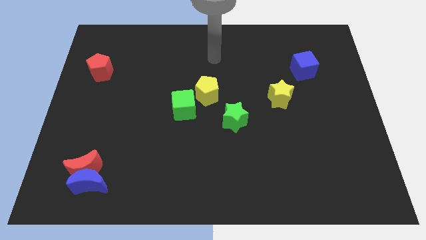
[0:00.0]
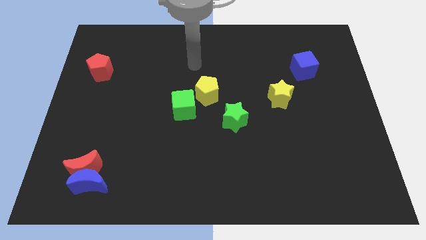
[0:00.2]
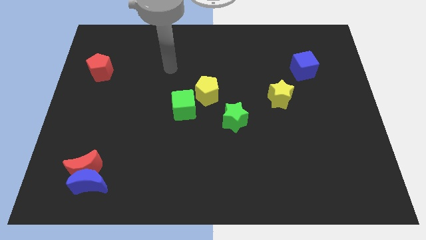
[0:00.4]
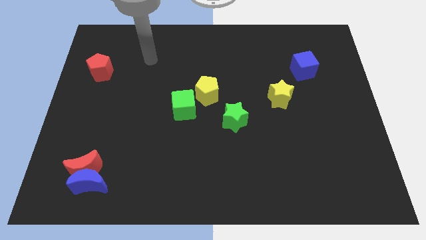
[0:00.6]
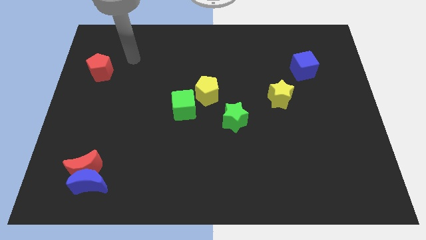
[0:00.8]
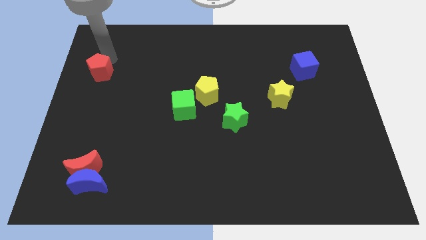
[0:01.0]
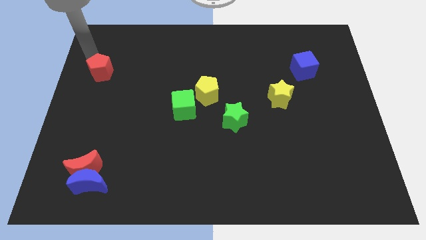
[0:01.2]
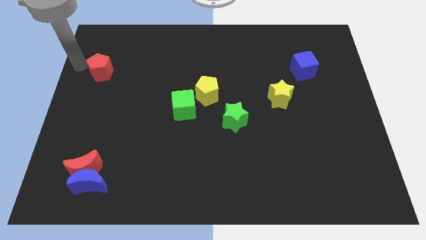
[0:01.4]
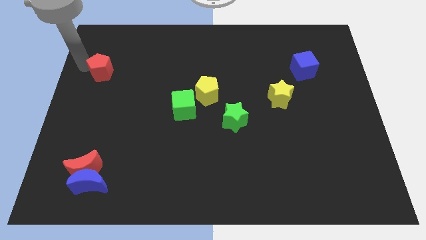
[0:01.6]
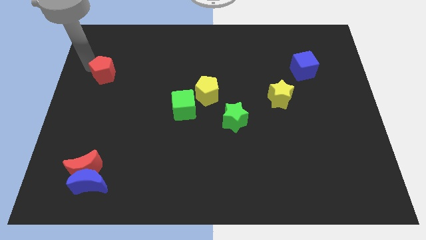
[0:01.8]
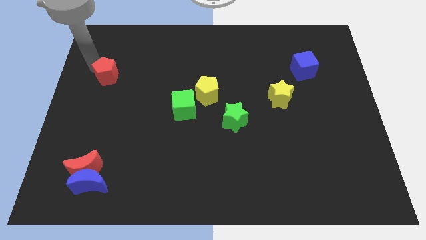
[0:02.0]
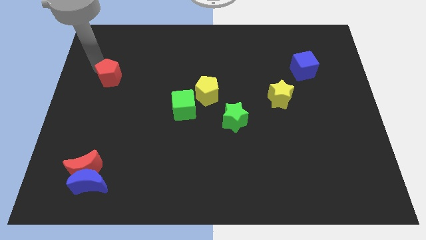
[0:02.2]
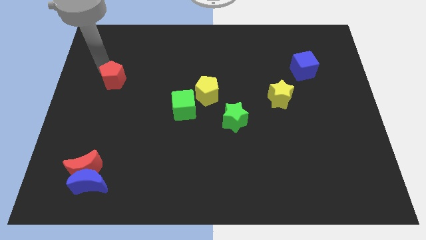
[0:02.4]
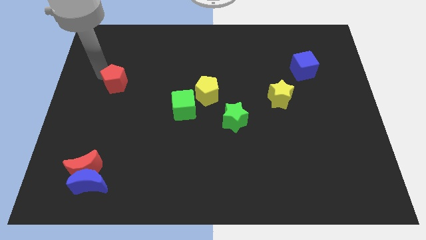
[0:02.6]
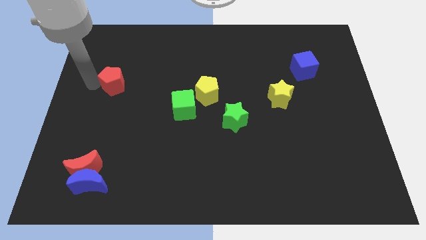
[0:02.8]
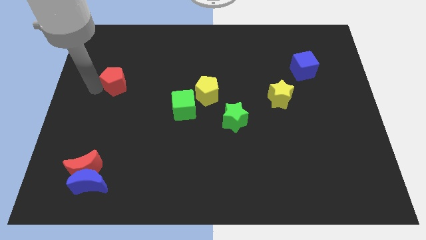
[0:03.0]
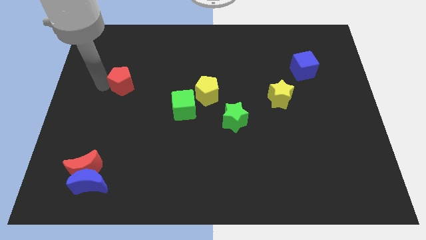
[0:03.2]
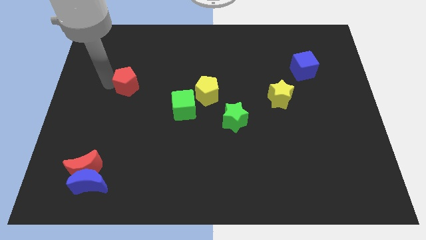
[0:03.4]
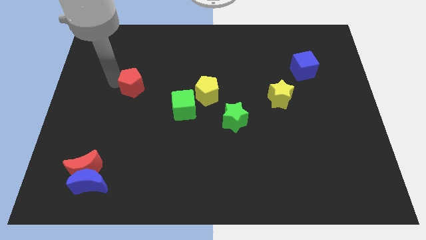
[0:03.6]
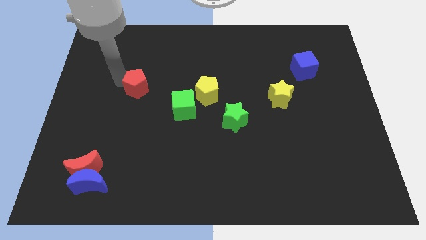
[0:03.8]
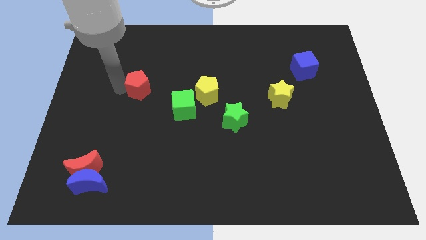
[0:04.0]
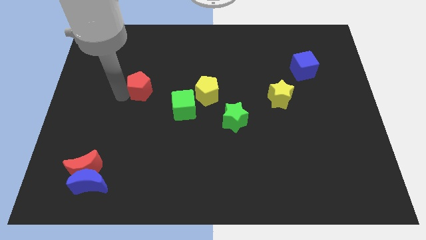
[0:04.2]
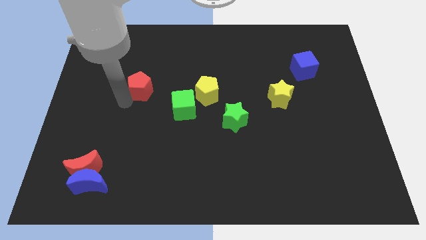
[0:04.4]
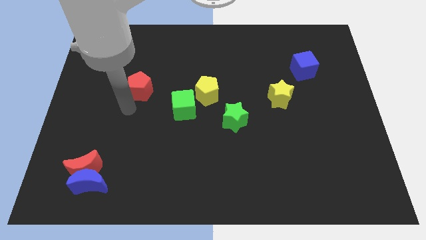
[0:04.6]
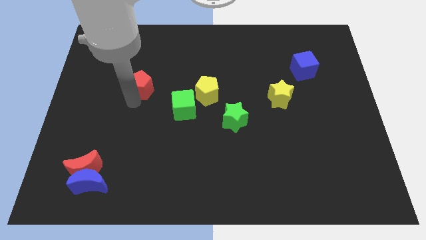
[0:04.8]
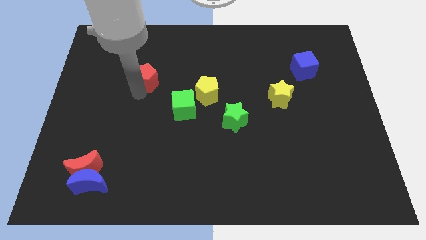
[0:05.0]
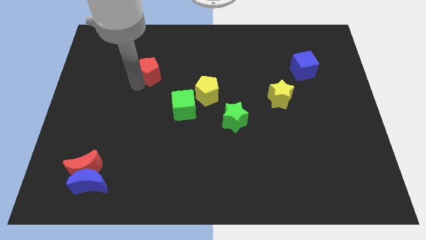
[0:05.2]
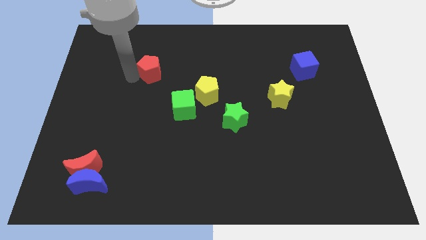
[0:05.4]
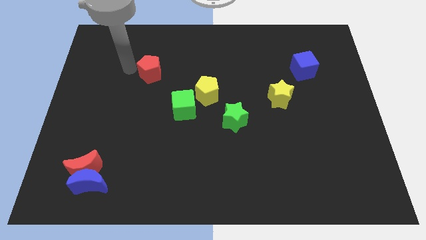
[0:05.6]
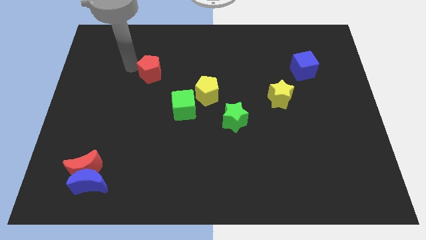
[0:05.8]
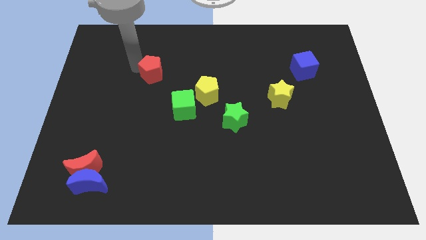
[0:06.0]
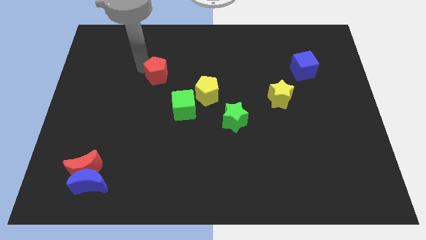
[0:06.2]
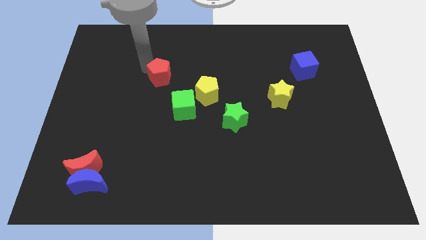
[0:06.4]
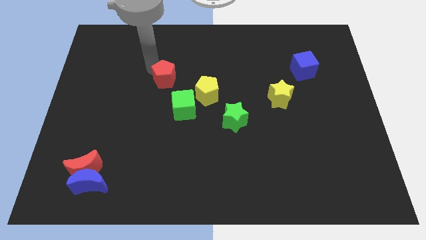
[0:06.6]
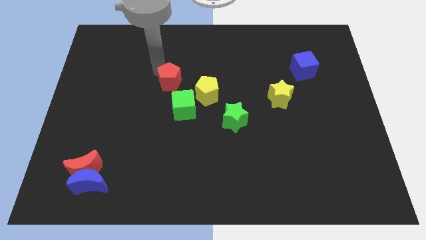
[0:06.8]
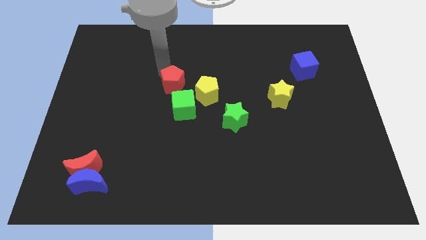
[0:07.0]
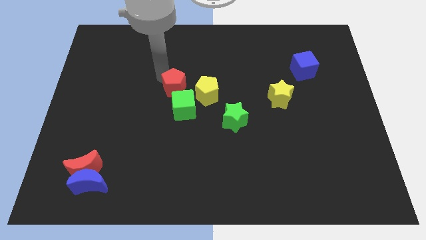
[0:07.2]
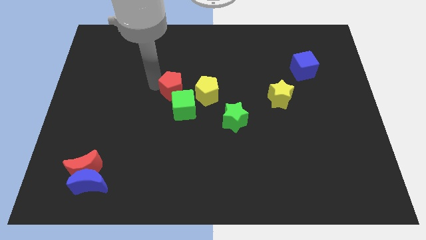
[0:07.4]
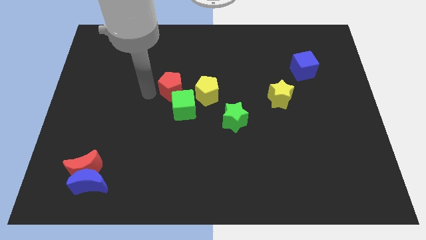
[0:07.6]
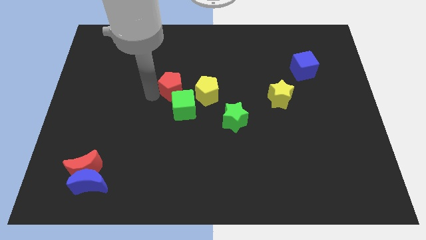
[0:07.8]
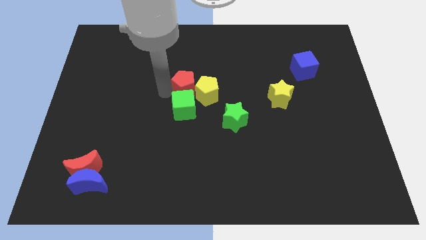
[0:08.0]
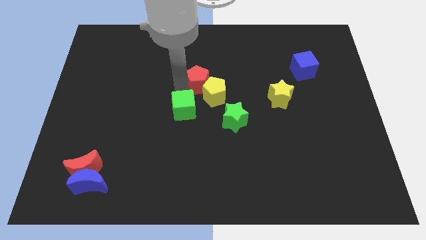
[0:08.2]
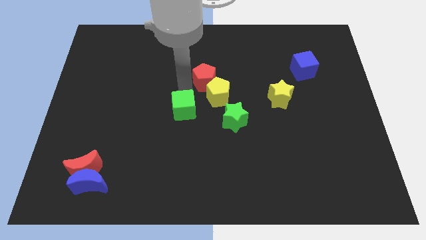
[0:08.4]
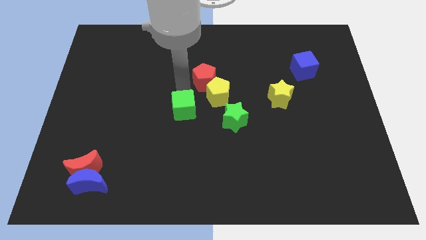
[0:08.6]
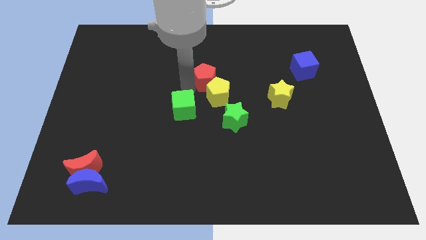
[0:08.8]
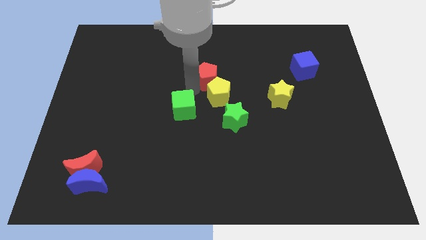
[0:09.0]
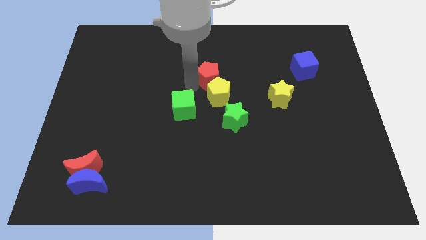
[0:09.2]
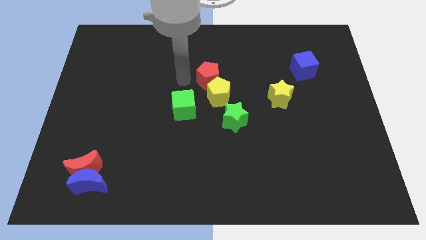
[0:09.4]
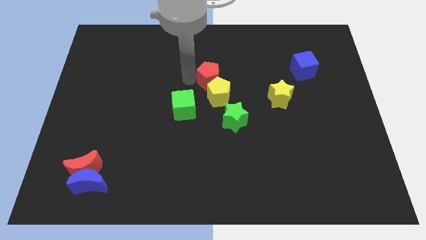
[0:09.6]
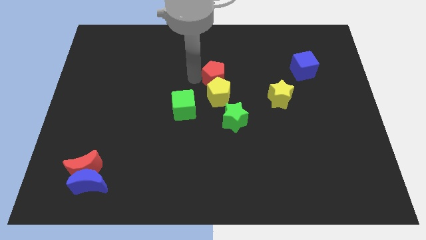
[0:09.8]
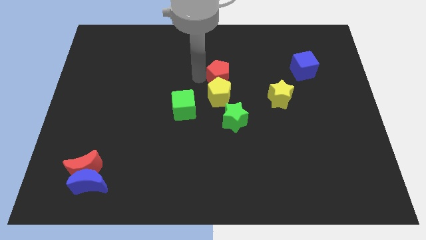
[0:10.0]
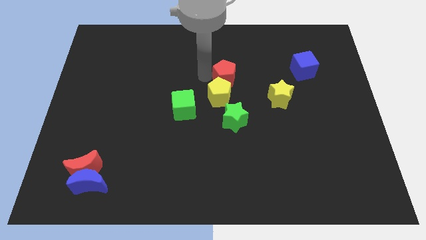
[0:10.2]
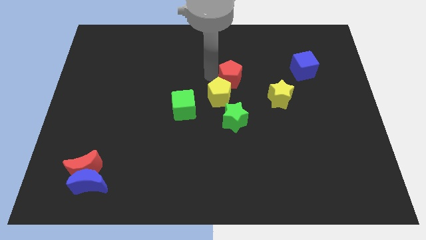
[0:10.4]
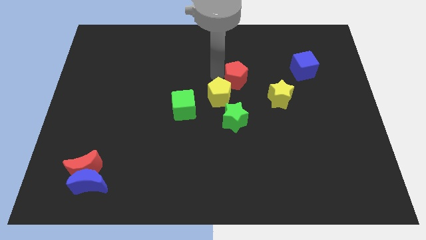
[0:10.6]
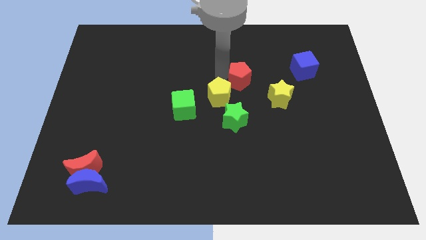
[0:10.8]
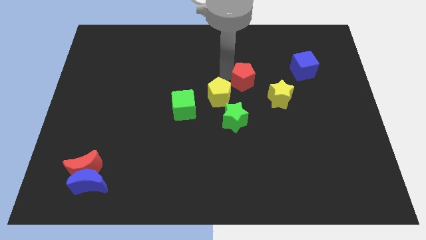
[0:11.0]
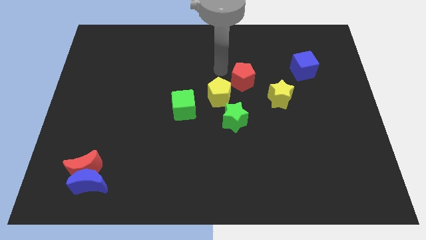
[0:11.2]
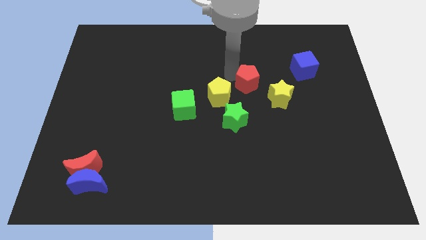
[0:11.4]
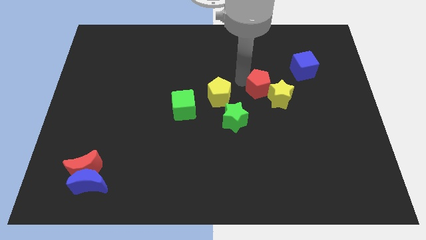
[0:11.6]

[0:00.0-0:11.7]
move the red pentagon next to the yellow star
